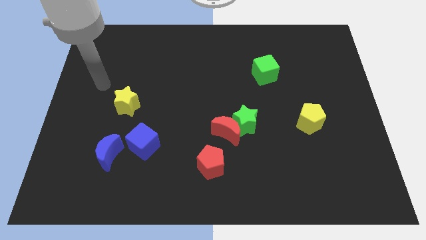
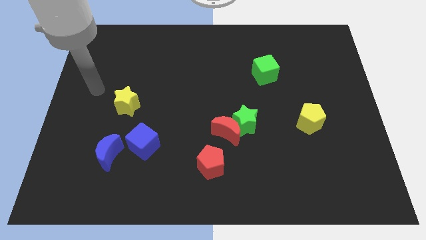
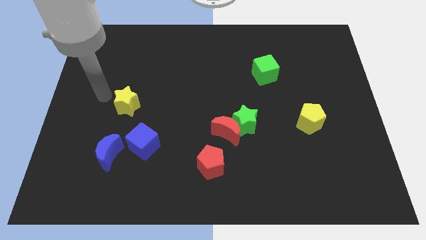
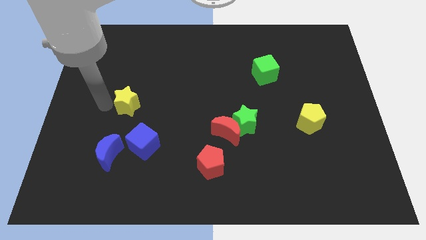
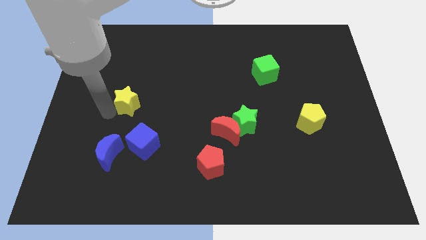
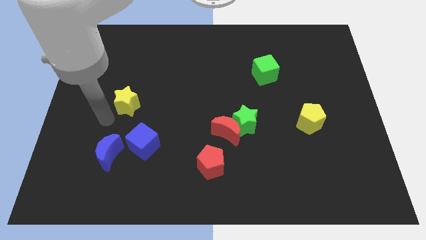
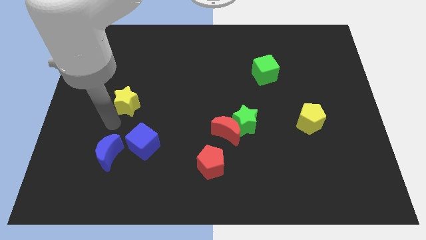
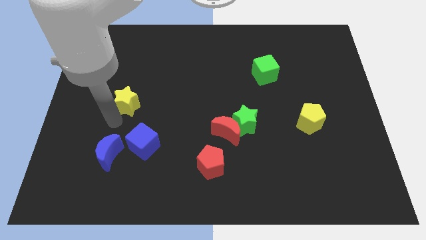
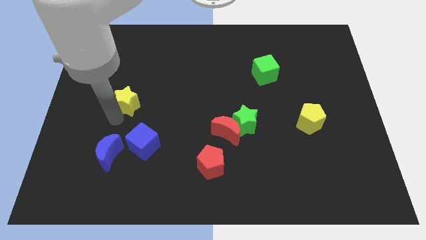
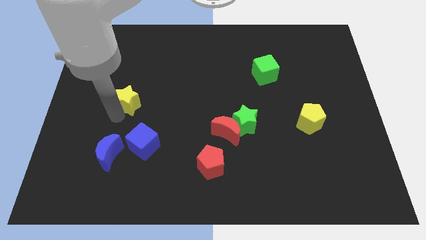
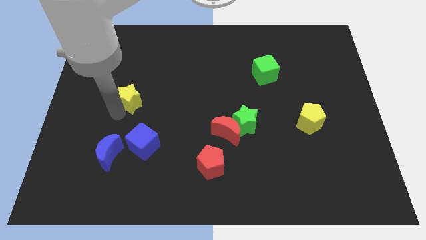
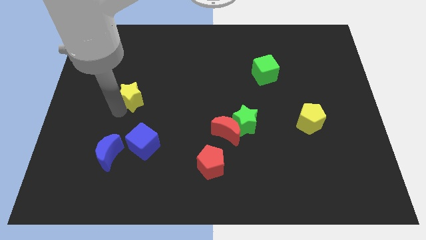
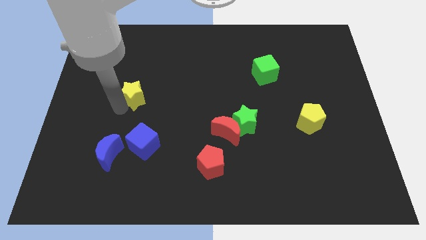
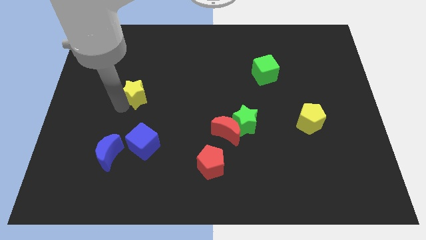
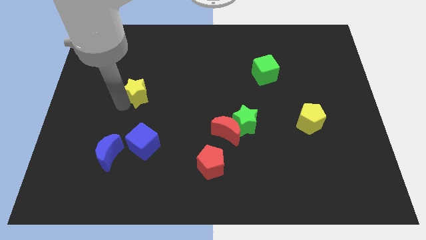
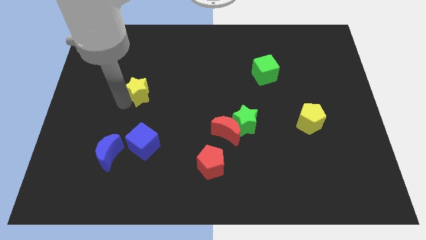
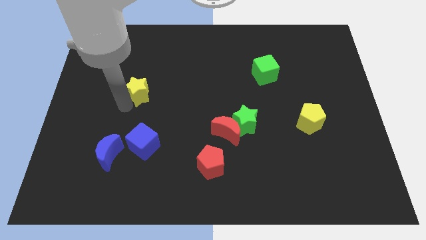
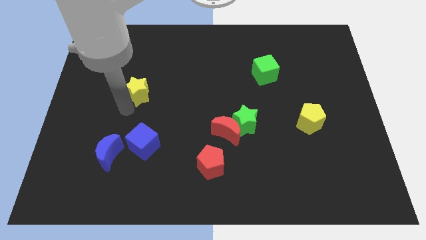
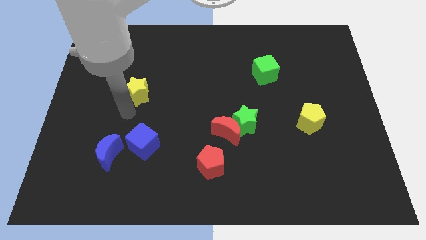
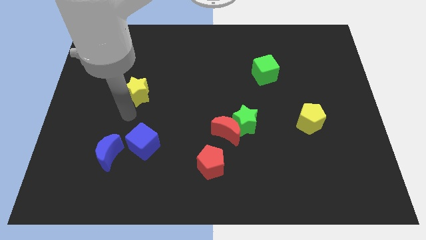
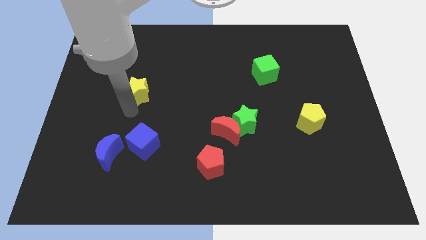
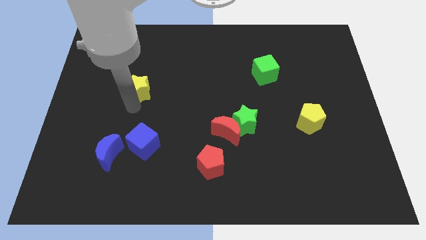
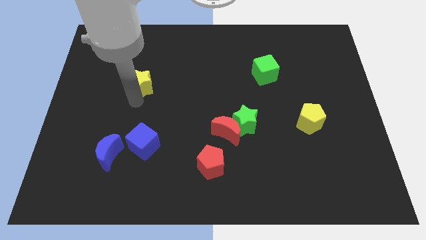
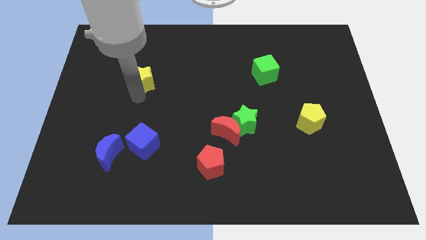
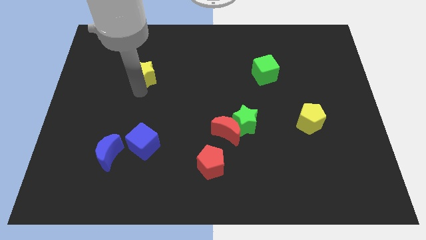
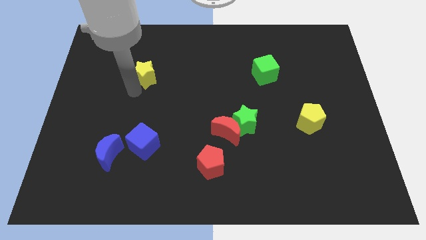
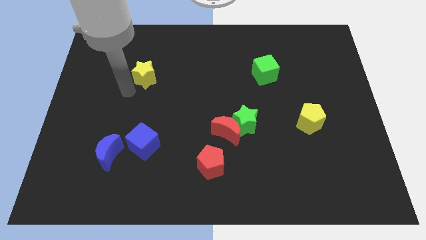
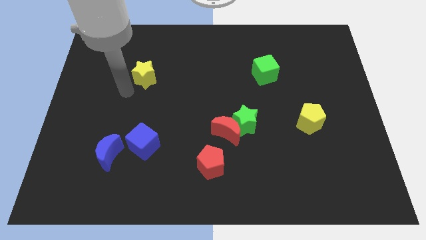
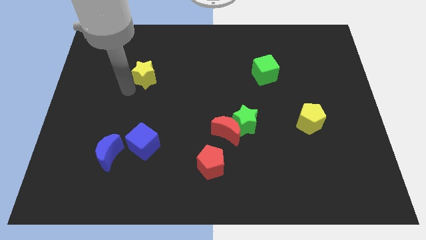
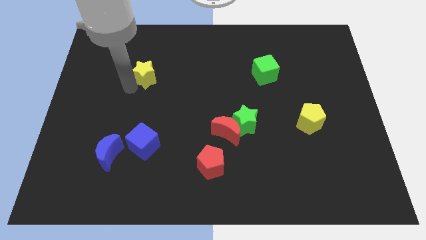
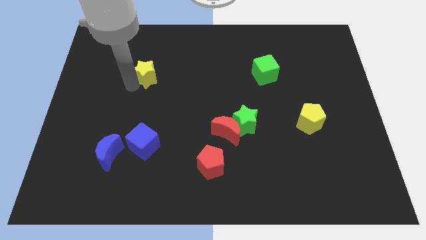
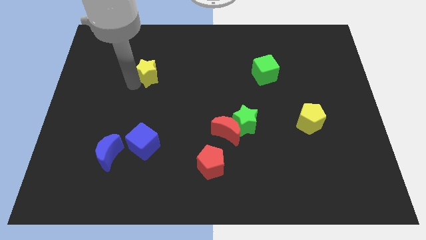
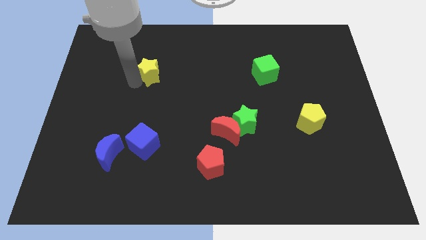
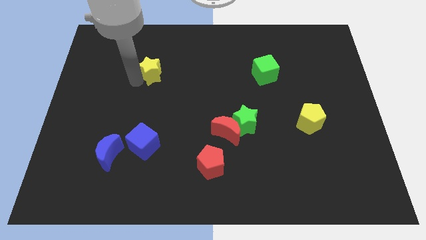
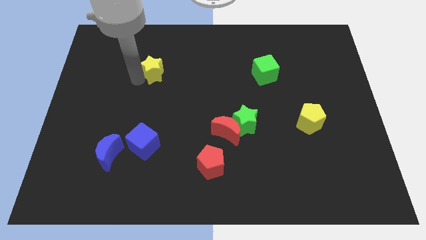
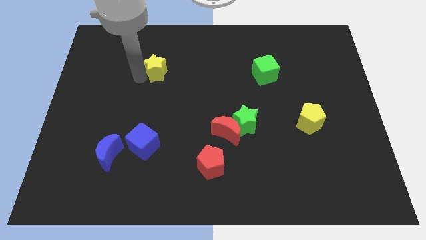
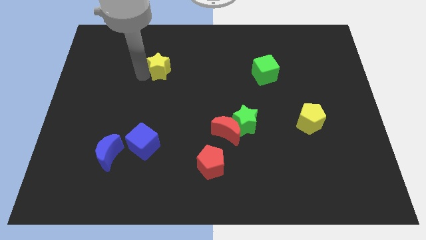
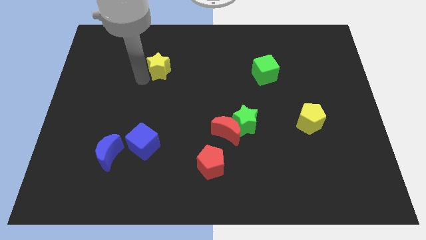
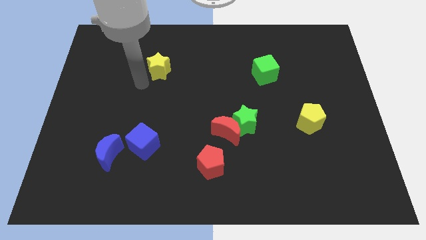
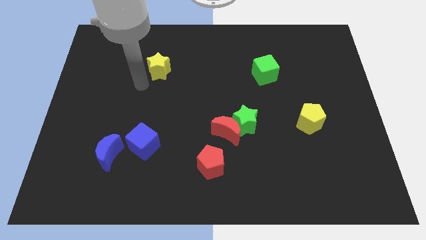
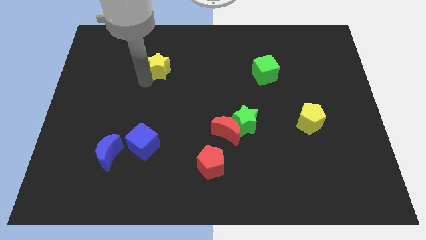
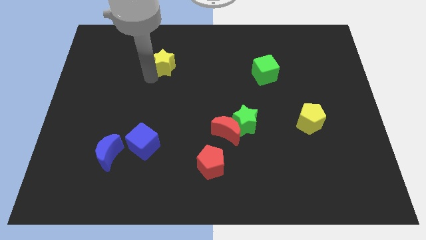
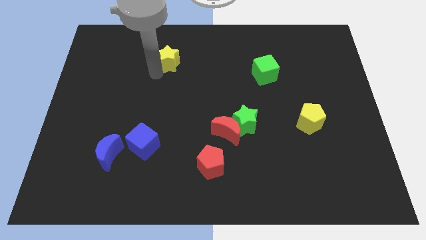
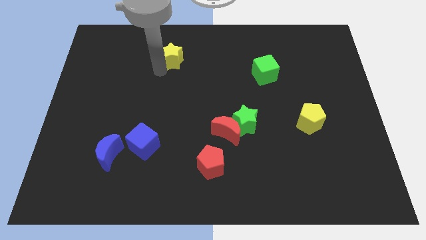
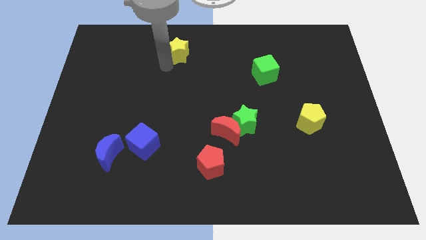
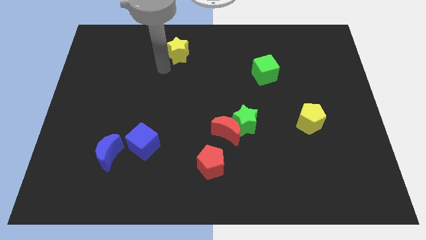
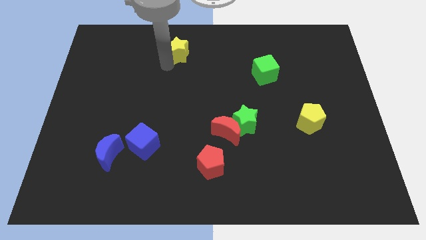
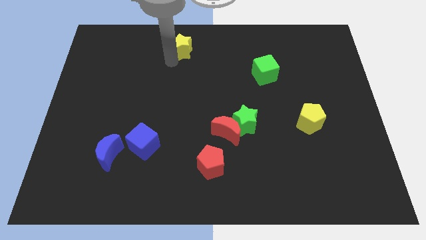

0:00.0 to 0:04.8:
move the yellow star to the towards your base

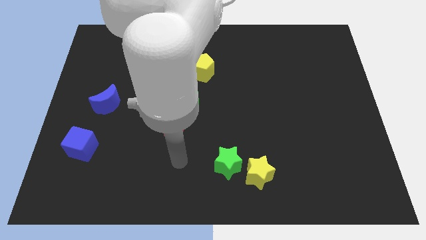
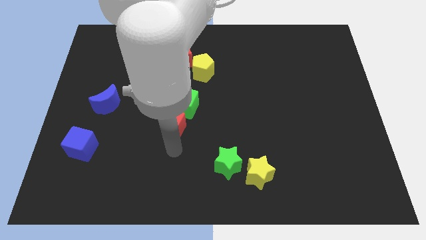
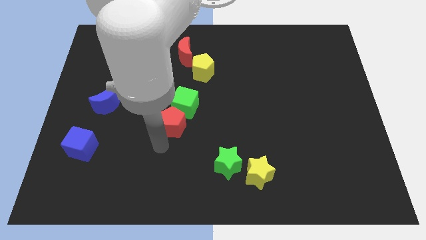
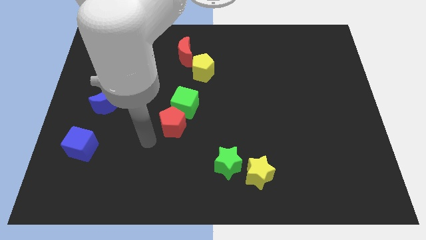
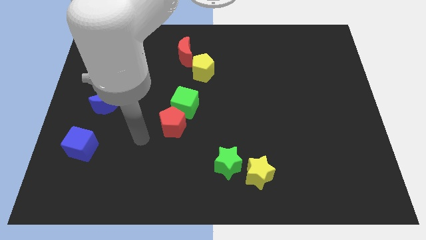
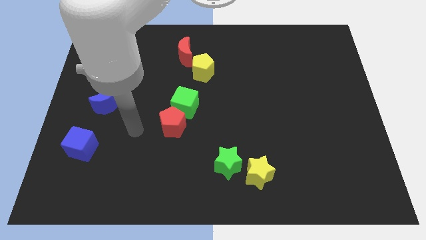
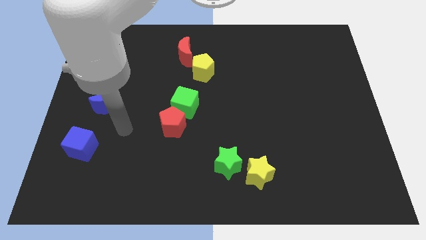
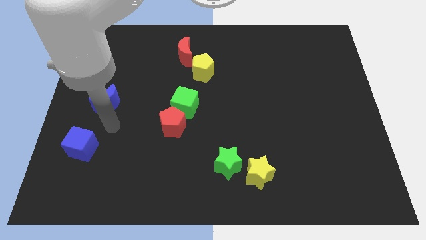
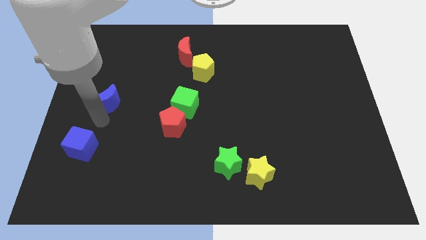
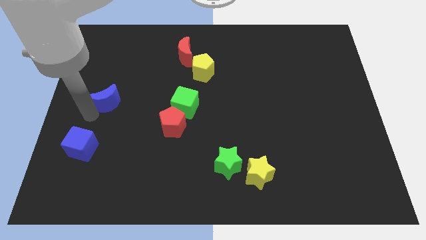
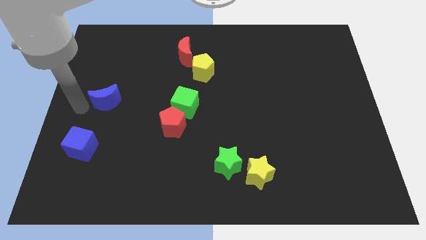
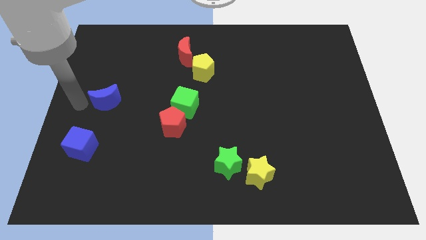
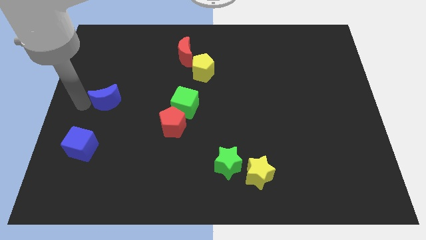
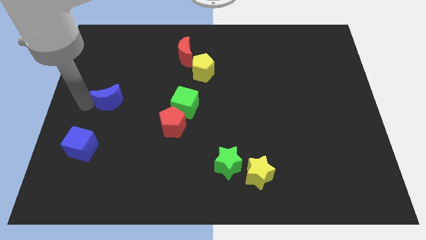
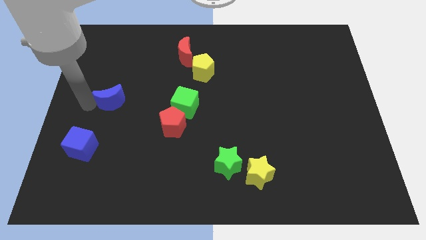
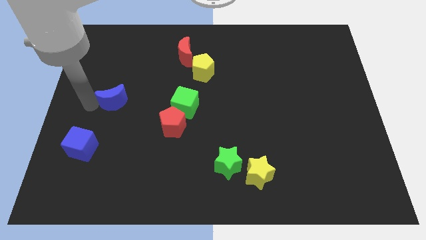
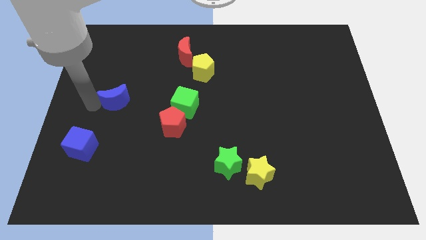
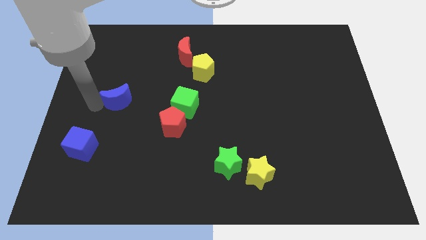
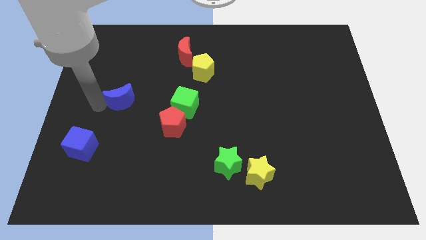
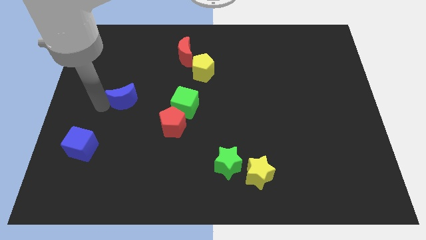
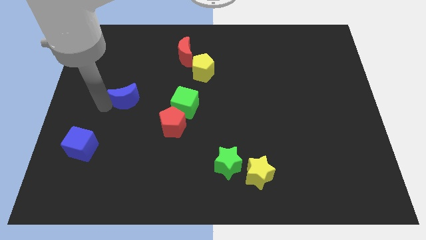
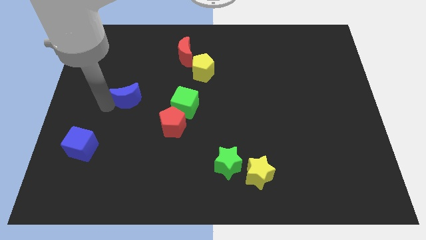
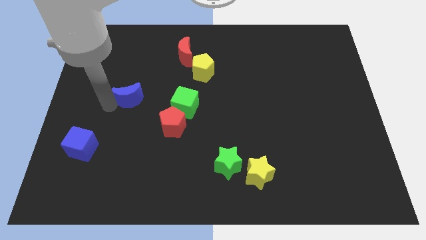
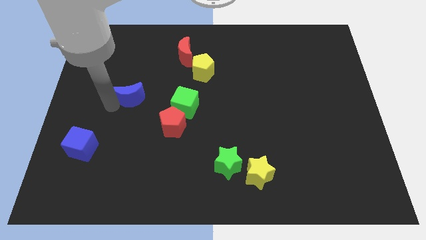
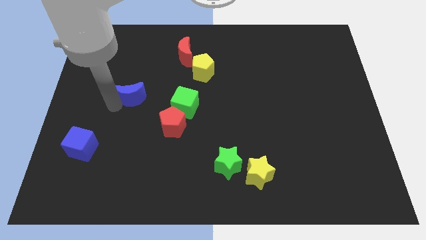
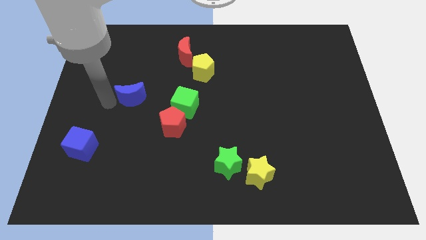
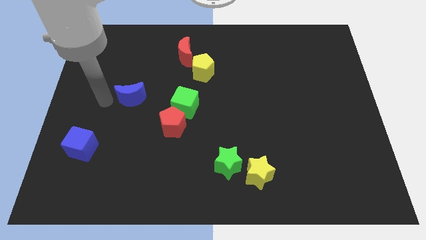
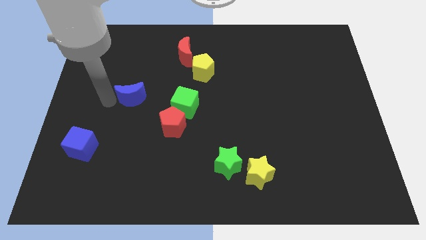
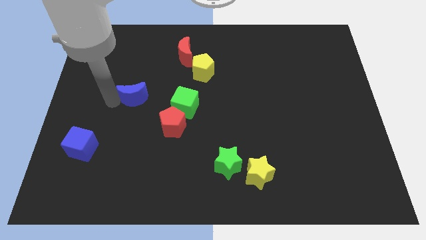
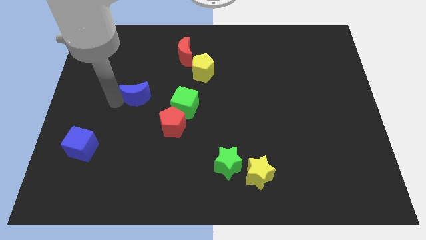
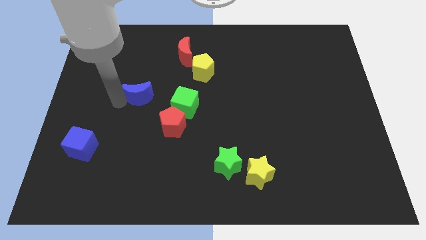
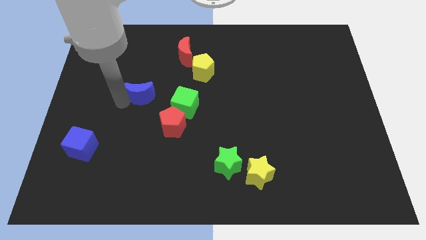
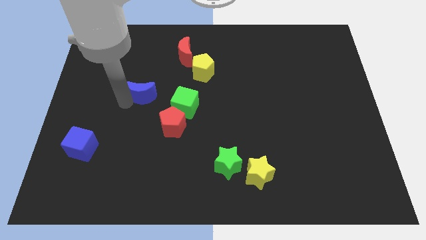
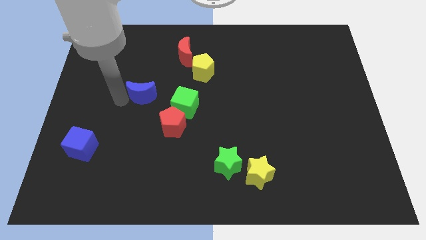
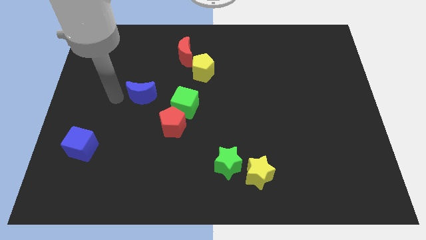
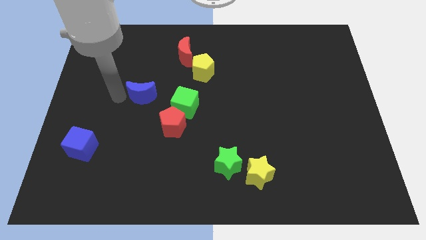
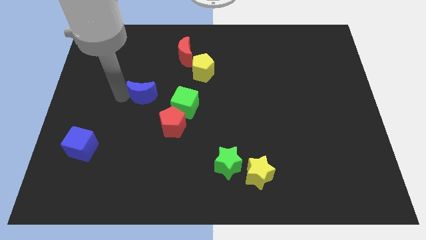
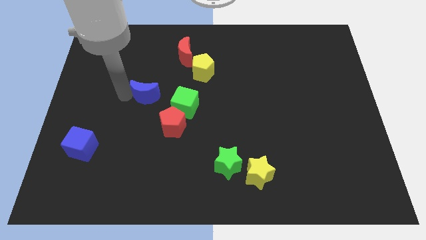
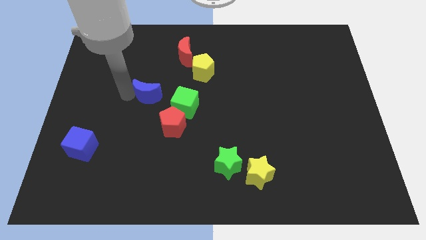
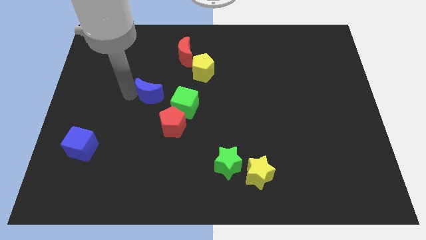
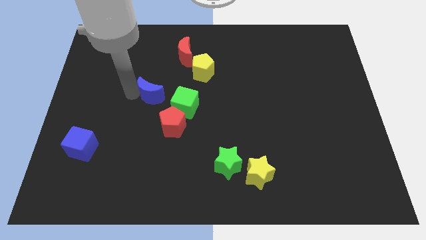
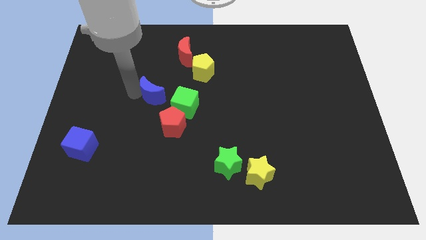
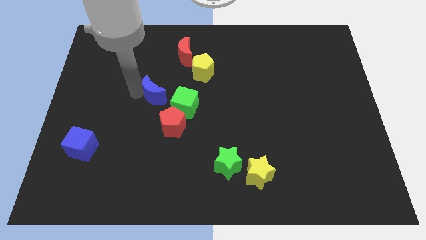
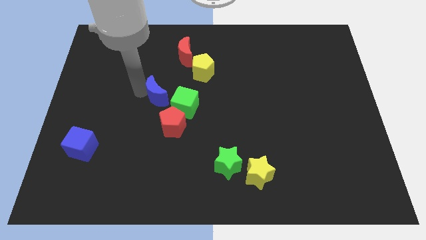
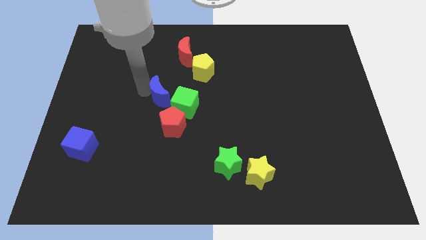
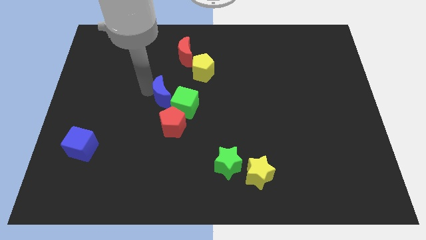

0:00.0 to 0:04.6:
put the blue moon to the center of the board
